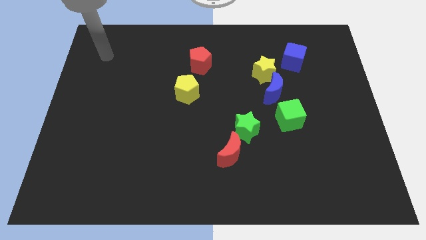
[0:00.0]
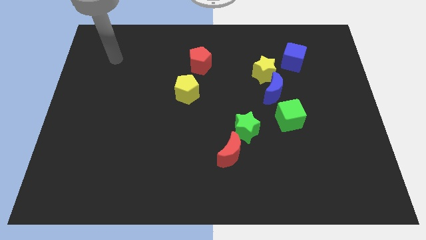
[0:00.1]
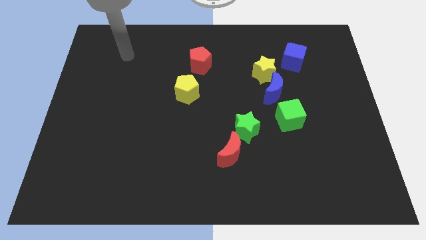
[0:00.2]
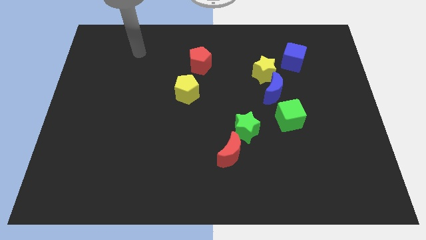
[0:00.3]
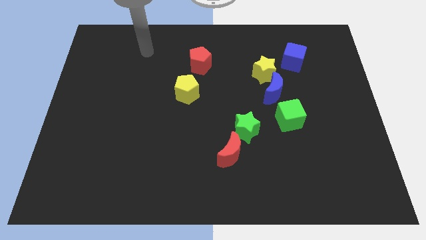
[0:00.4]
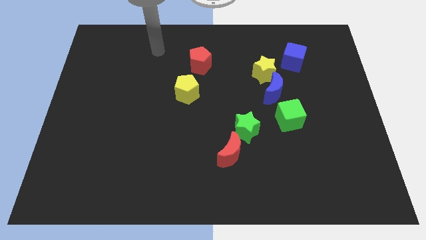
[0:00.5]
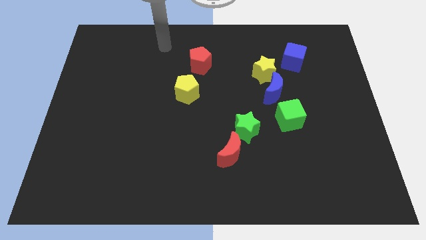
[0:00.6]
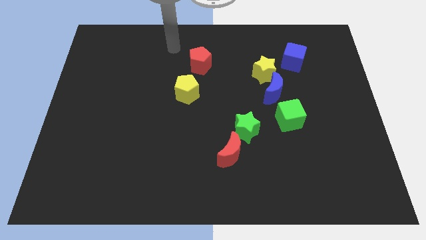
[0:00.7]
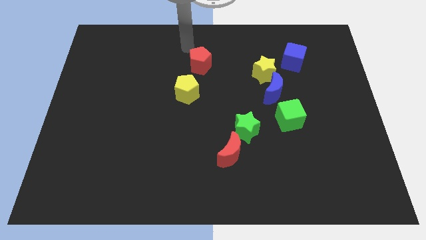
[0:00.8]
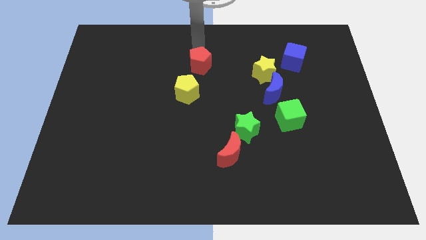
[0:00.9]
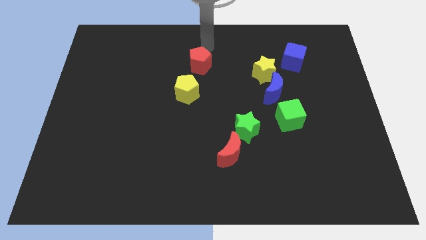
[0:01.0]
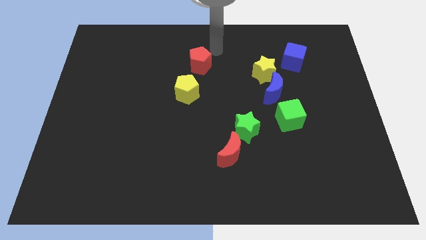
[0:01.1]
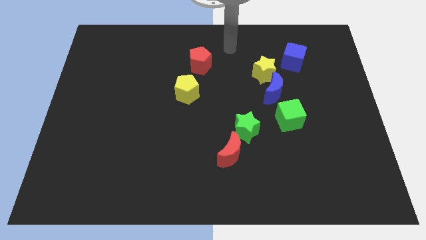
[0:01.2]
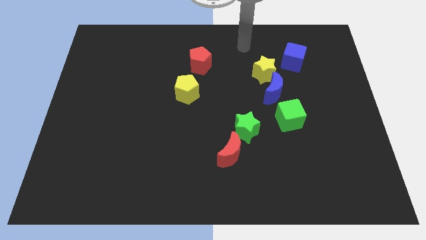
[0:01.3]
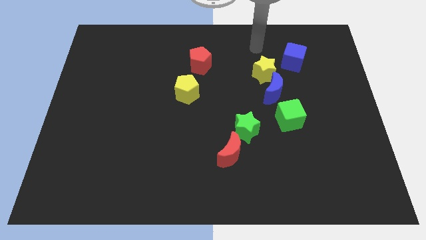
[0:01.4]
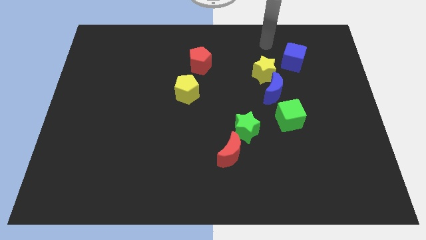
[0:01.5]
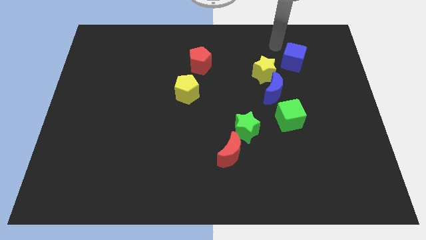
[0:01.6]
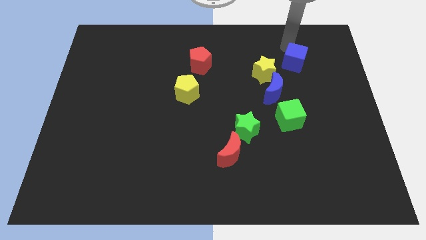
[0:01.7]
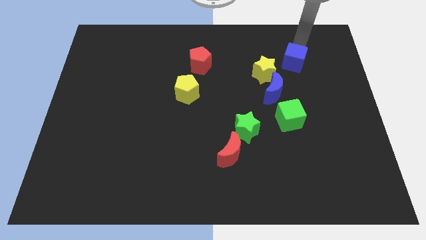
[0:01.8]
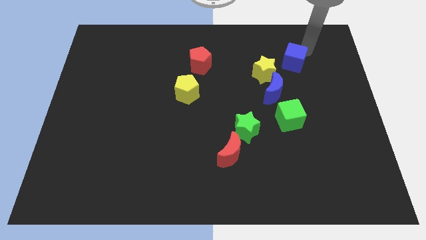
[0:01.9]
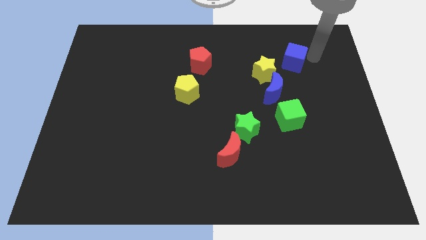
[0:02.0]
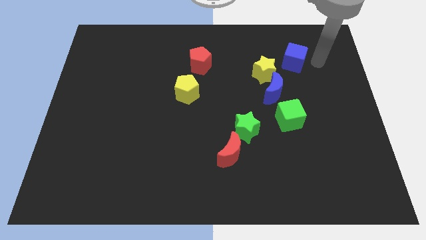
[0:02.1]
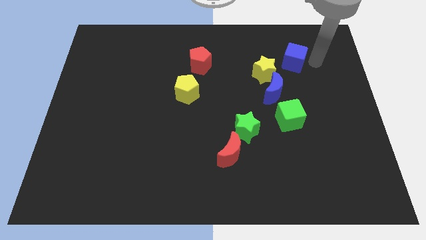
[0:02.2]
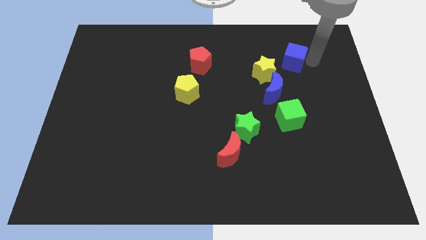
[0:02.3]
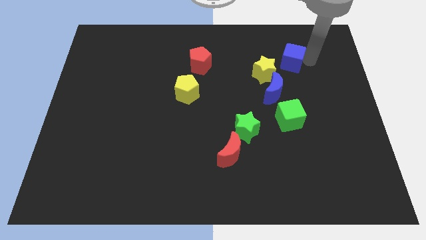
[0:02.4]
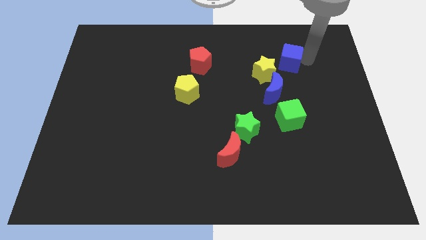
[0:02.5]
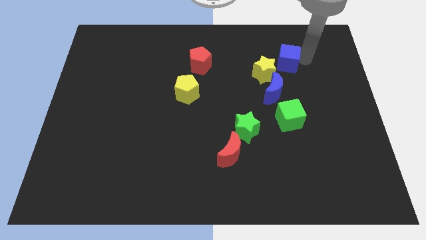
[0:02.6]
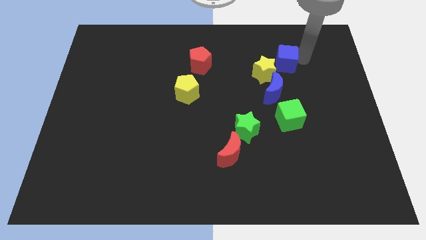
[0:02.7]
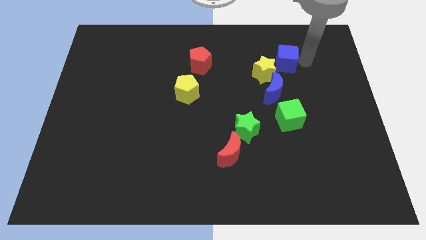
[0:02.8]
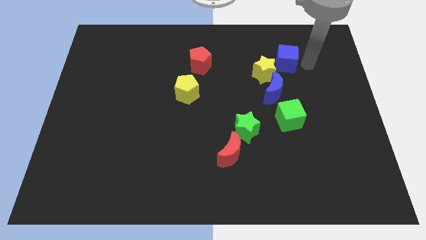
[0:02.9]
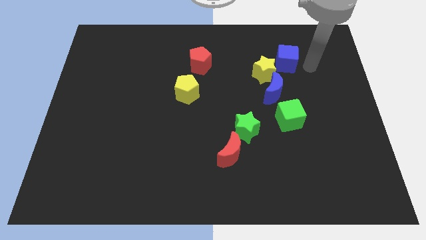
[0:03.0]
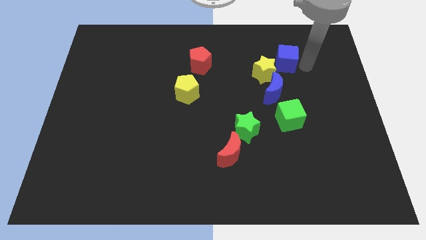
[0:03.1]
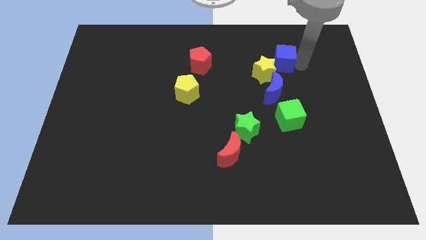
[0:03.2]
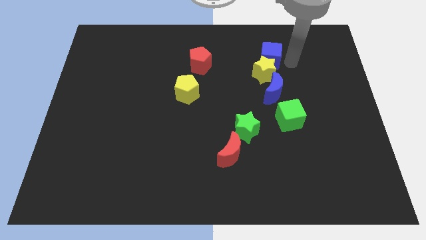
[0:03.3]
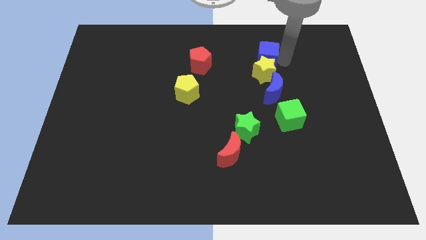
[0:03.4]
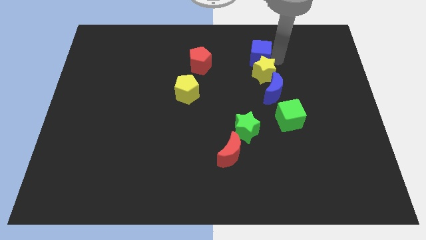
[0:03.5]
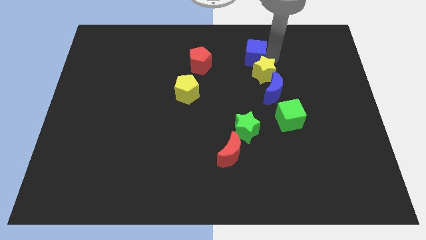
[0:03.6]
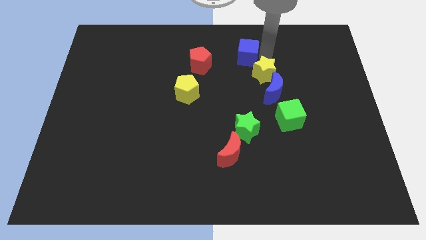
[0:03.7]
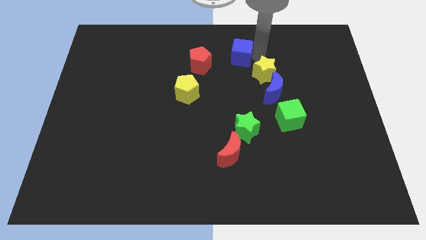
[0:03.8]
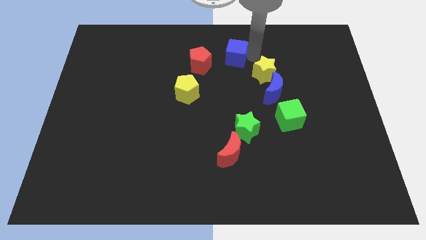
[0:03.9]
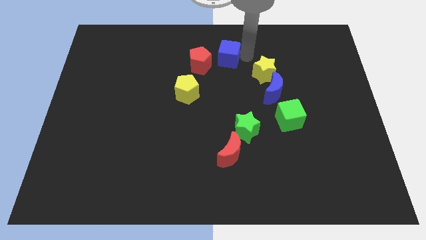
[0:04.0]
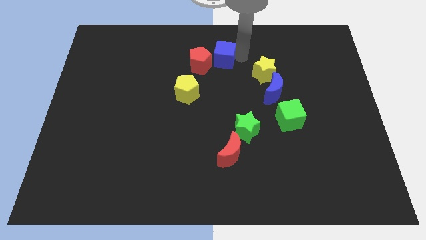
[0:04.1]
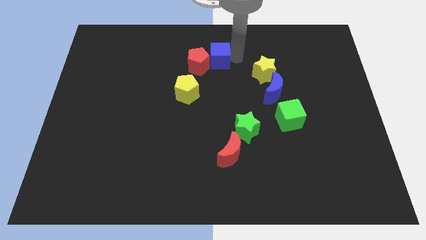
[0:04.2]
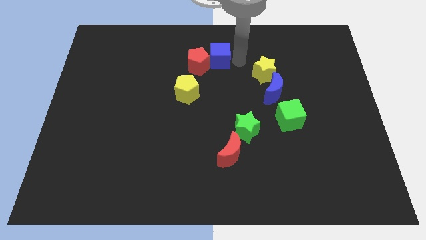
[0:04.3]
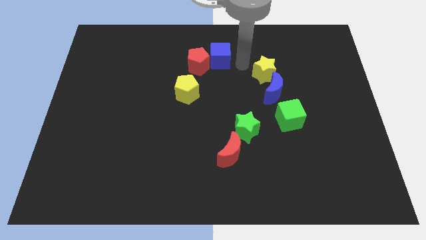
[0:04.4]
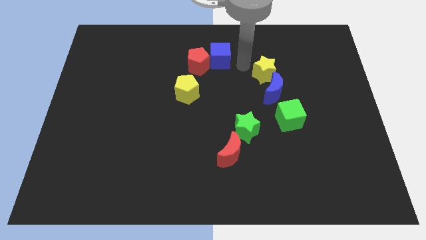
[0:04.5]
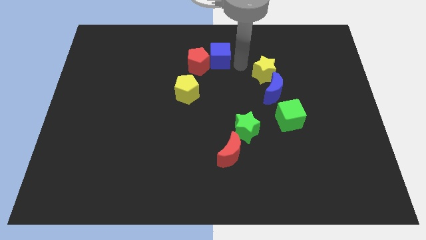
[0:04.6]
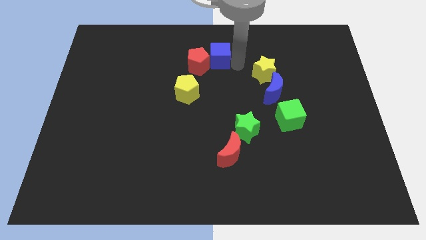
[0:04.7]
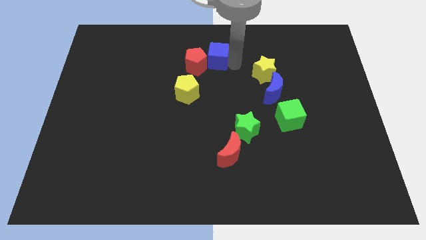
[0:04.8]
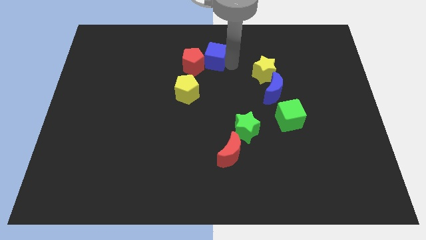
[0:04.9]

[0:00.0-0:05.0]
push the blue cube left

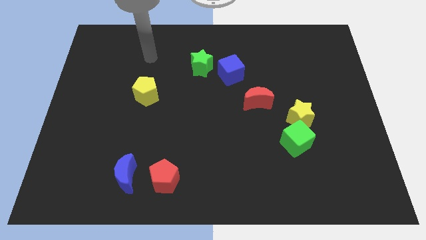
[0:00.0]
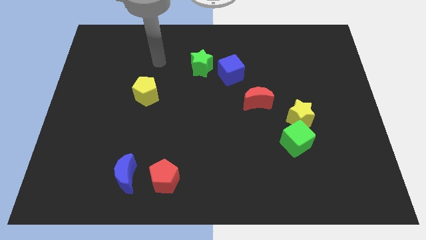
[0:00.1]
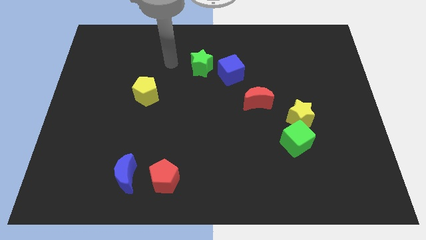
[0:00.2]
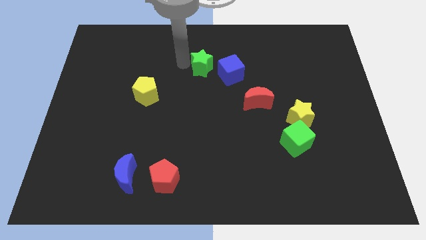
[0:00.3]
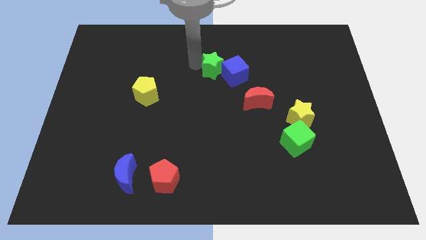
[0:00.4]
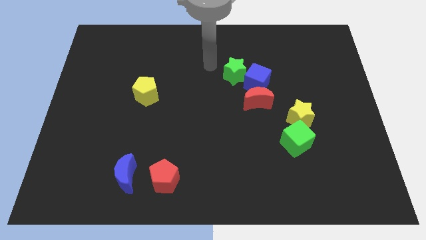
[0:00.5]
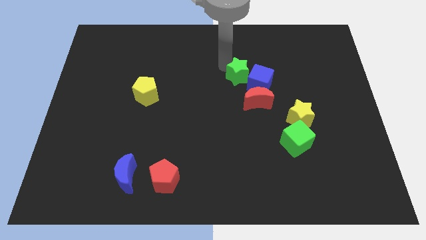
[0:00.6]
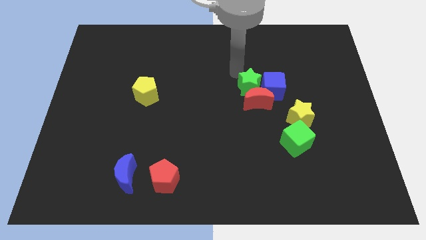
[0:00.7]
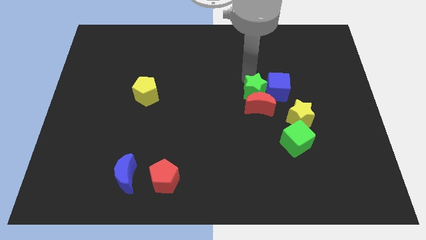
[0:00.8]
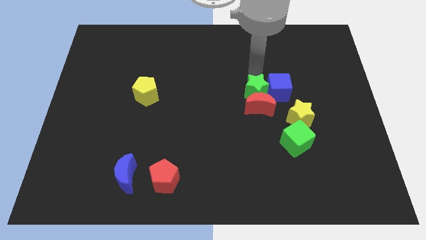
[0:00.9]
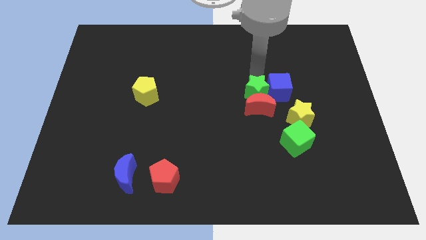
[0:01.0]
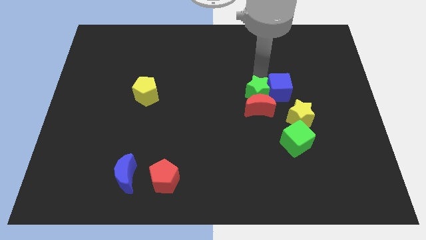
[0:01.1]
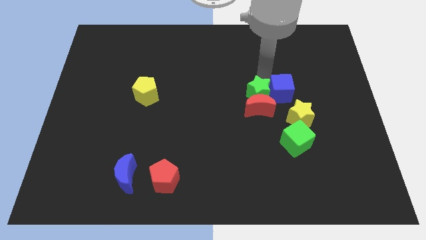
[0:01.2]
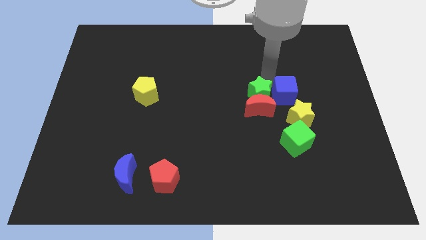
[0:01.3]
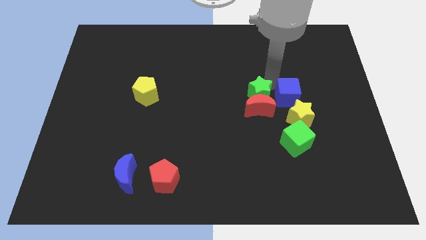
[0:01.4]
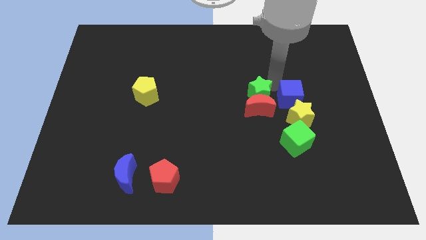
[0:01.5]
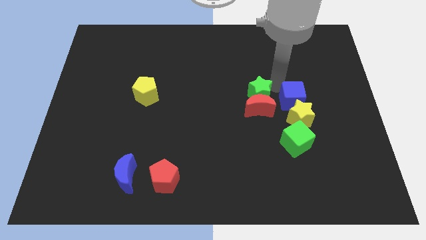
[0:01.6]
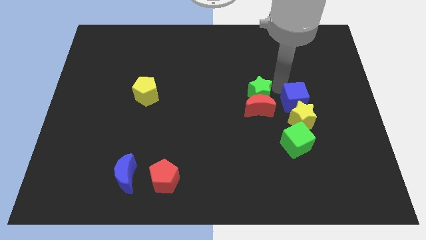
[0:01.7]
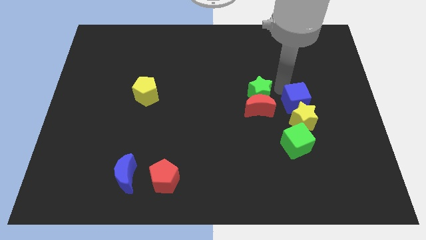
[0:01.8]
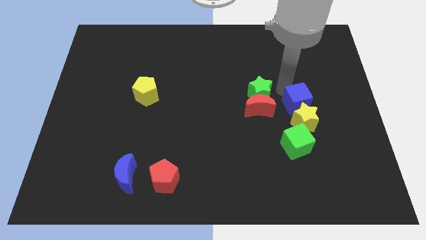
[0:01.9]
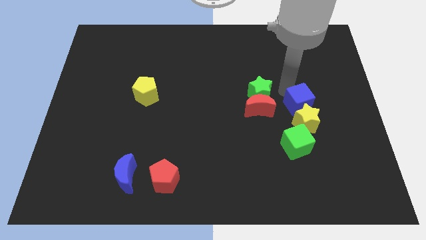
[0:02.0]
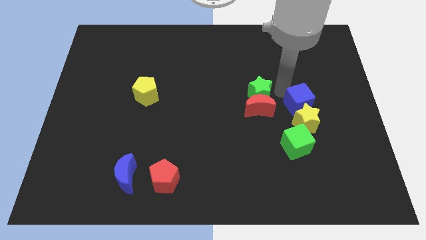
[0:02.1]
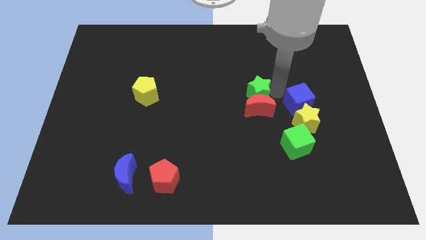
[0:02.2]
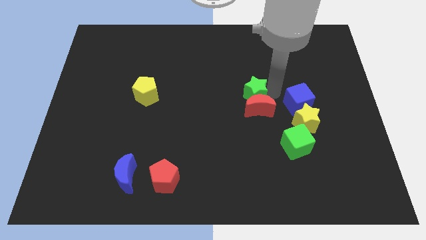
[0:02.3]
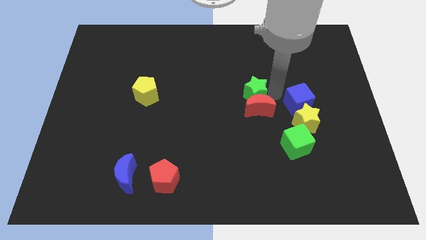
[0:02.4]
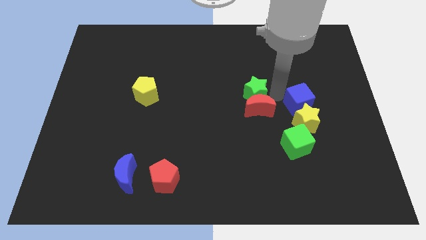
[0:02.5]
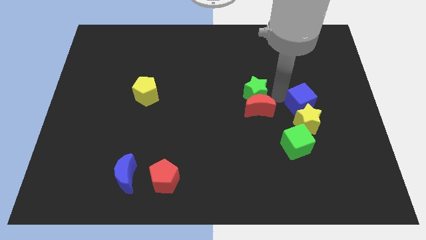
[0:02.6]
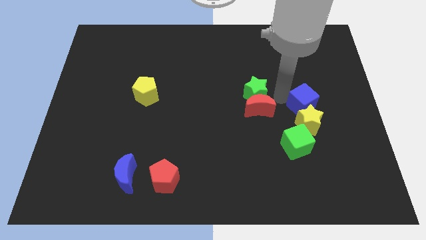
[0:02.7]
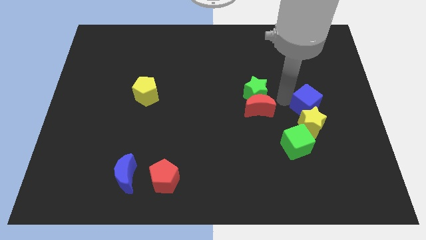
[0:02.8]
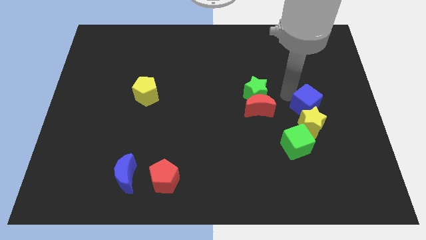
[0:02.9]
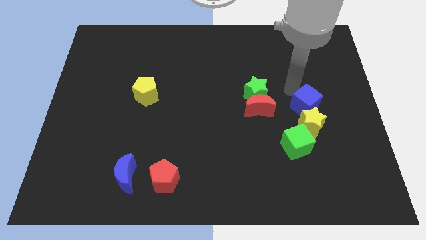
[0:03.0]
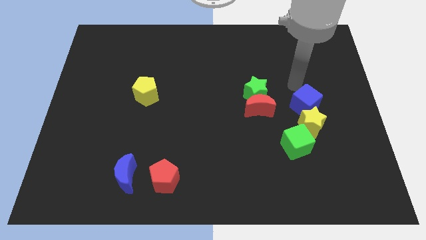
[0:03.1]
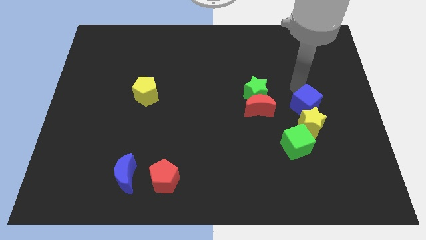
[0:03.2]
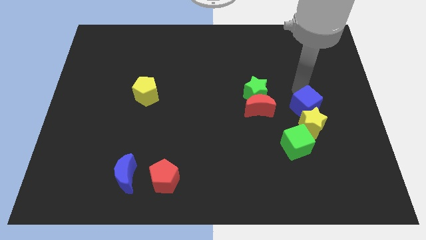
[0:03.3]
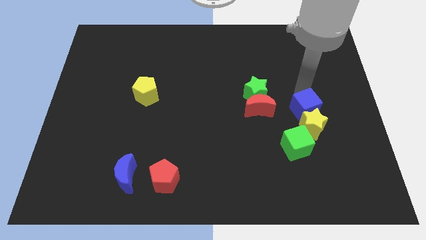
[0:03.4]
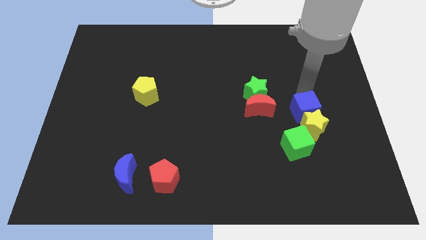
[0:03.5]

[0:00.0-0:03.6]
push the blue cube down and to the right diagonally
